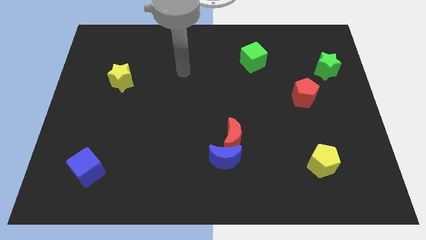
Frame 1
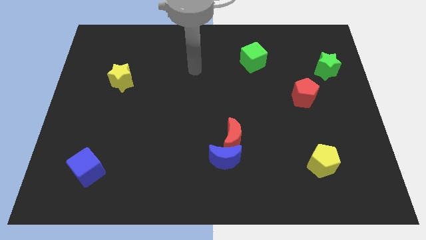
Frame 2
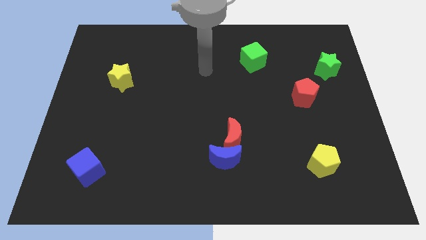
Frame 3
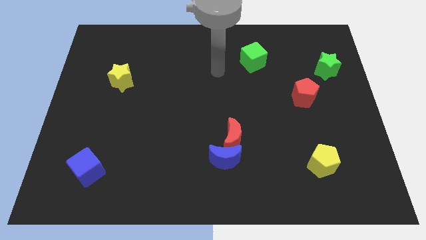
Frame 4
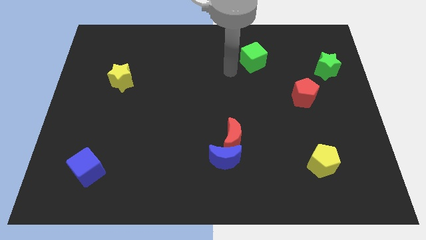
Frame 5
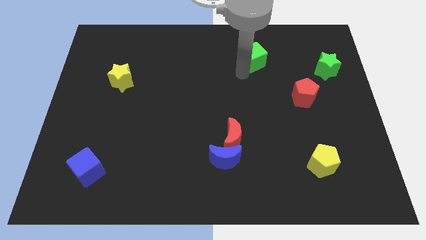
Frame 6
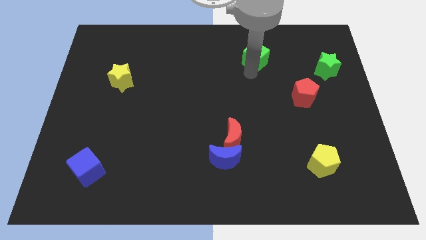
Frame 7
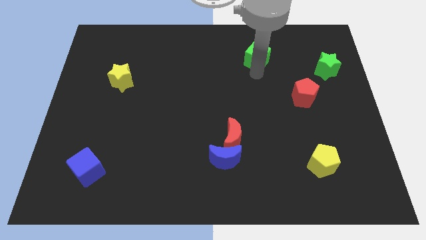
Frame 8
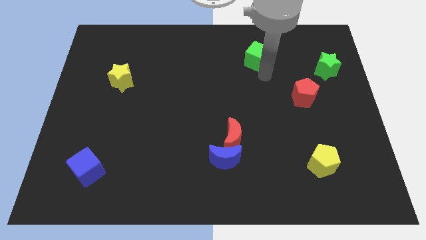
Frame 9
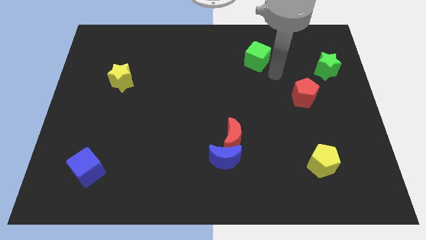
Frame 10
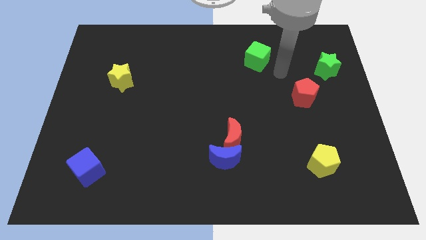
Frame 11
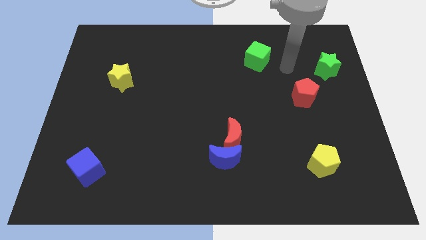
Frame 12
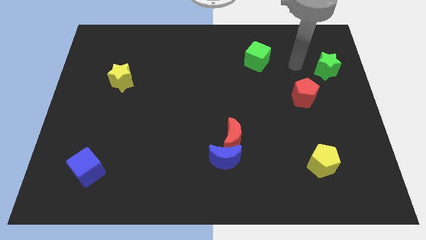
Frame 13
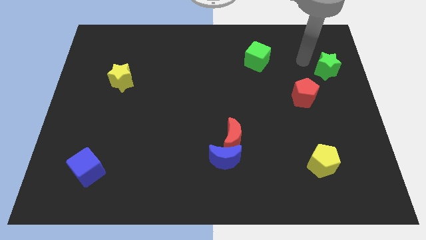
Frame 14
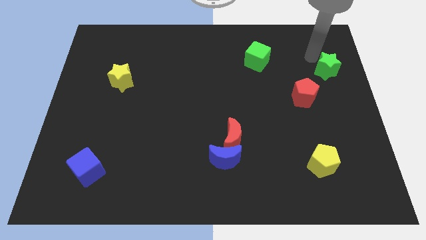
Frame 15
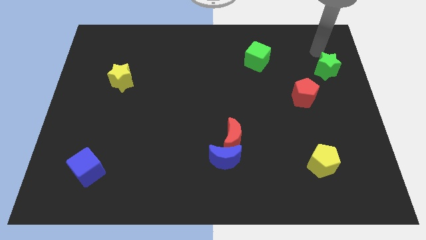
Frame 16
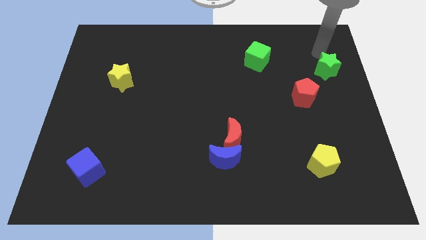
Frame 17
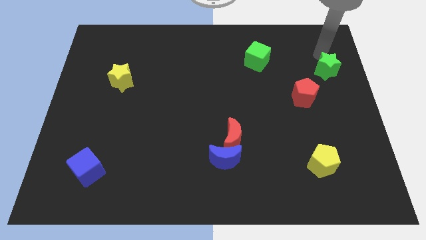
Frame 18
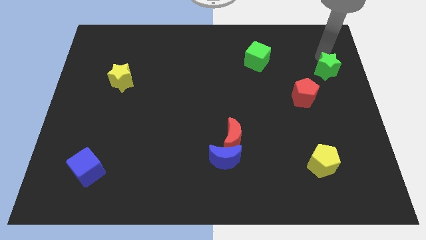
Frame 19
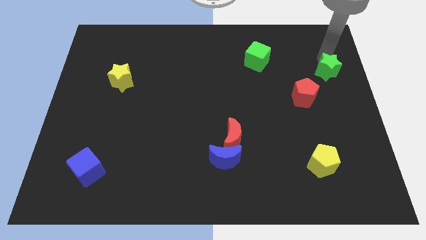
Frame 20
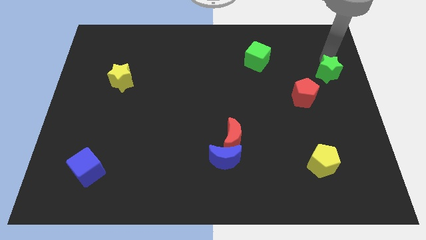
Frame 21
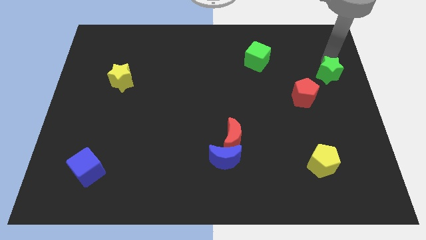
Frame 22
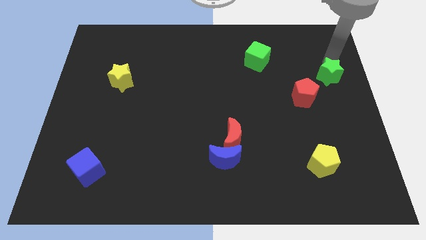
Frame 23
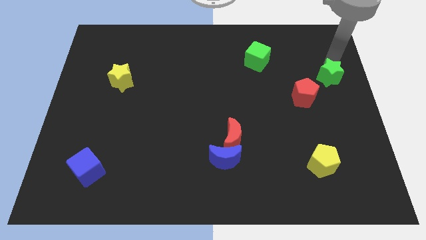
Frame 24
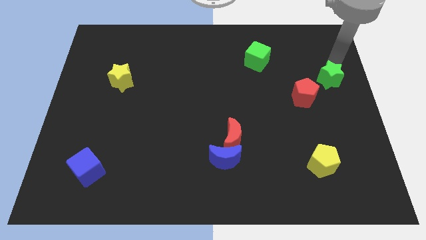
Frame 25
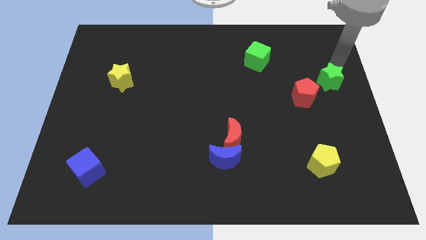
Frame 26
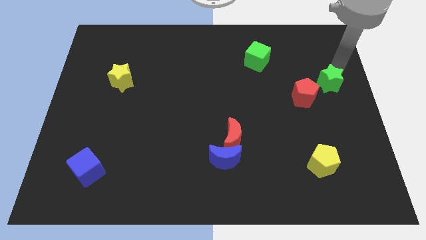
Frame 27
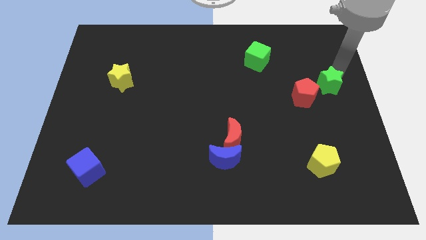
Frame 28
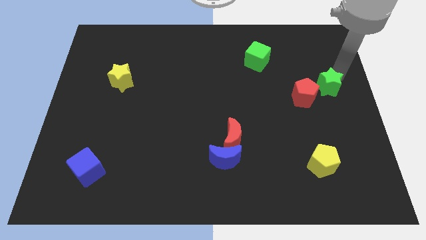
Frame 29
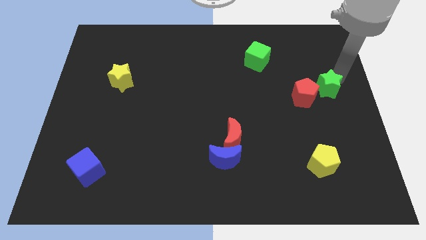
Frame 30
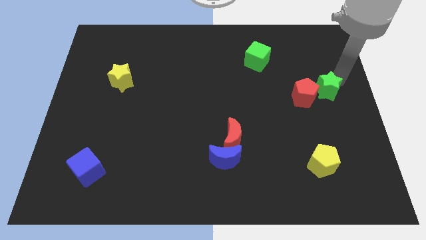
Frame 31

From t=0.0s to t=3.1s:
move the green star a little bit downwards

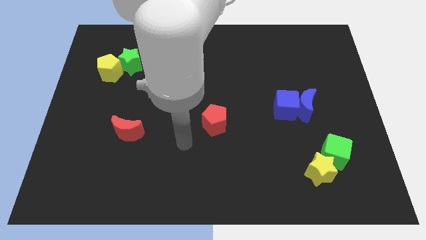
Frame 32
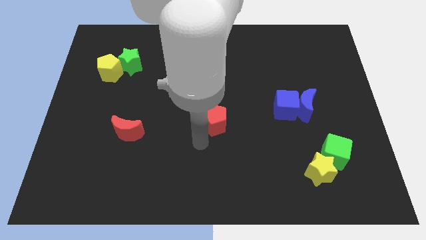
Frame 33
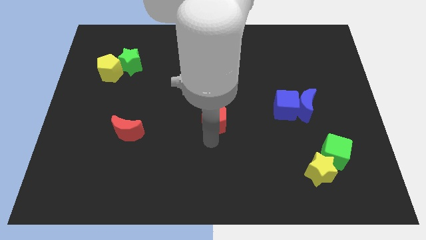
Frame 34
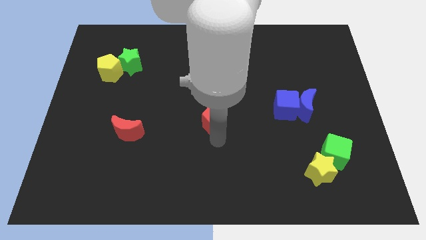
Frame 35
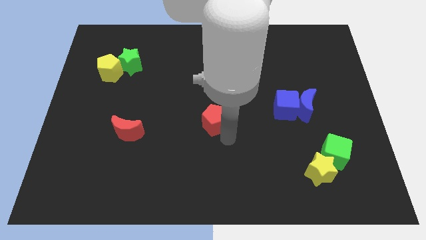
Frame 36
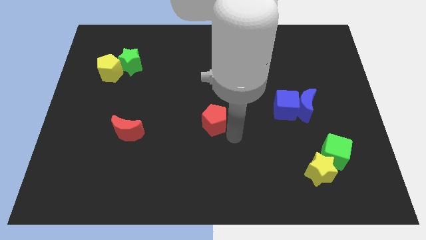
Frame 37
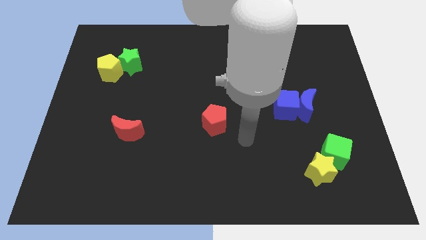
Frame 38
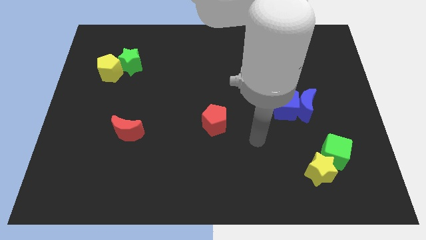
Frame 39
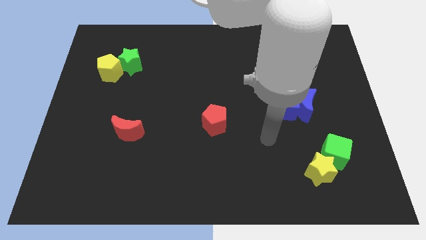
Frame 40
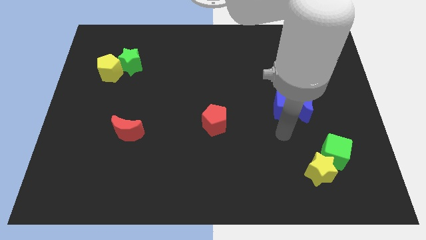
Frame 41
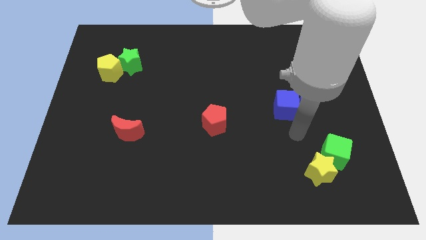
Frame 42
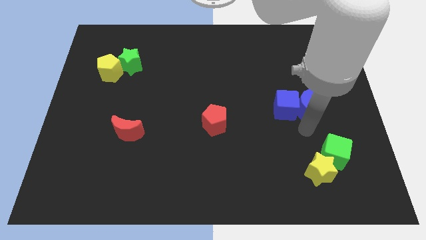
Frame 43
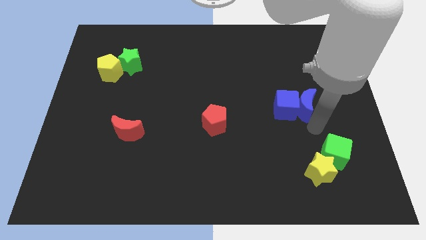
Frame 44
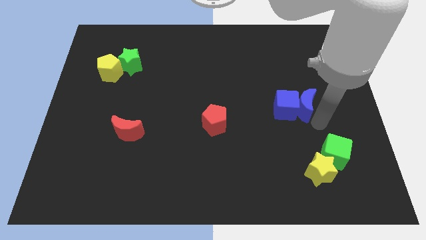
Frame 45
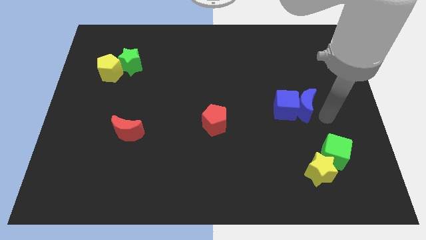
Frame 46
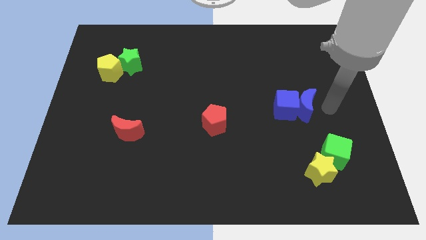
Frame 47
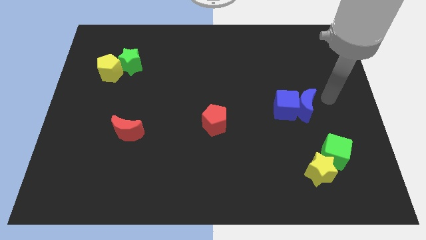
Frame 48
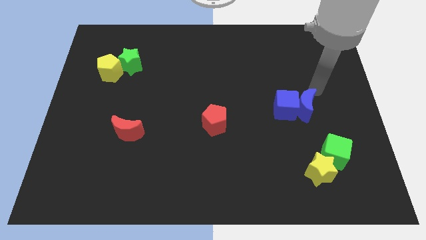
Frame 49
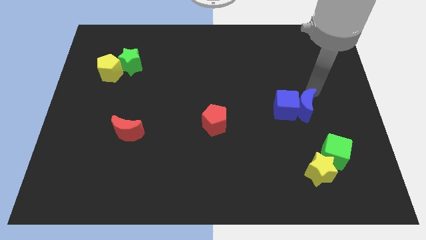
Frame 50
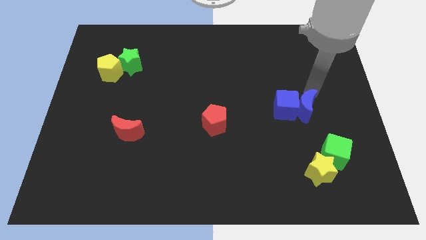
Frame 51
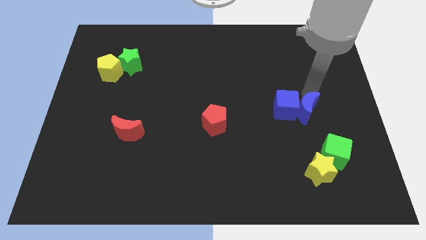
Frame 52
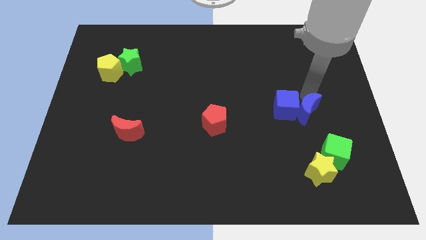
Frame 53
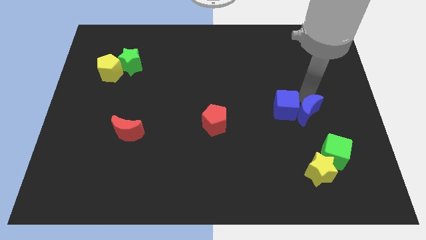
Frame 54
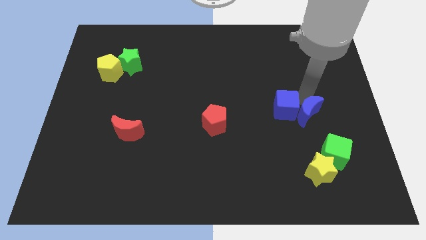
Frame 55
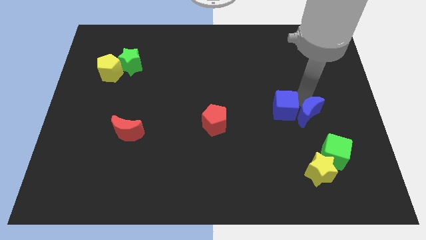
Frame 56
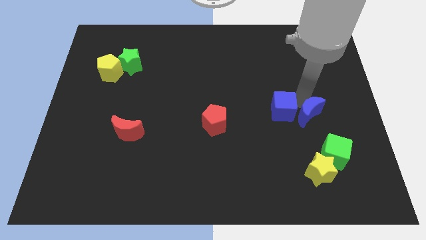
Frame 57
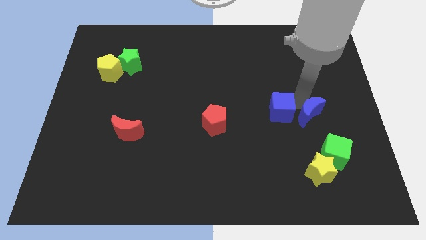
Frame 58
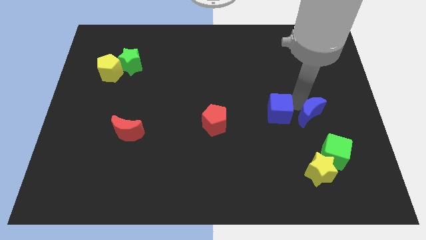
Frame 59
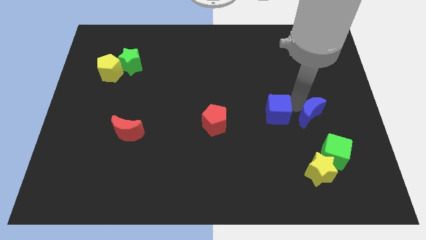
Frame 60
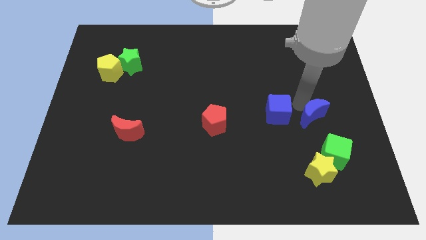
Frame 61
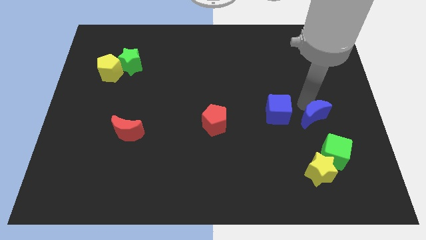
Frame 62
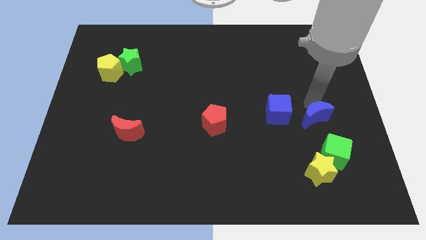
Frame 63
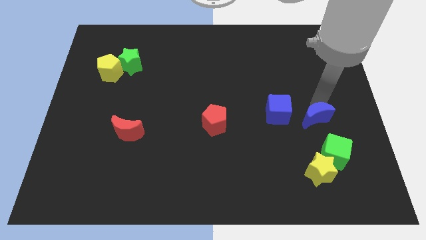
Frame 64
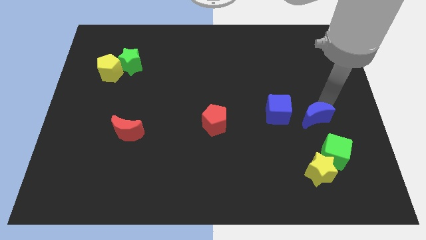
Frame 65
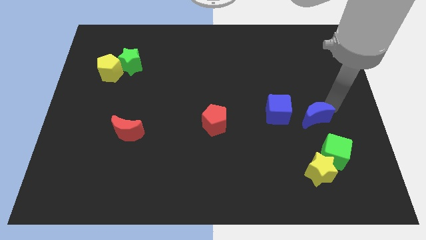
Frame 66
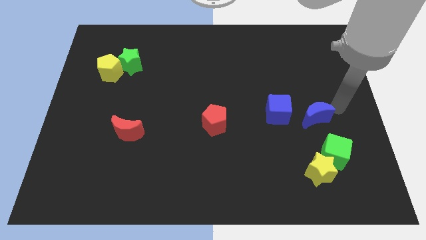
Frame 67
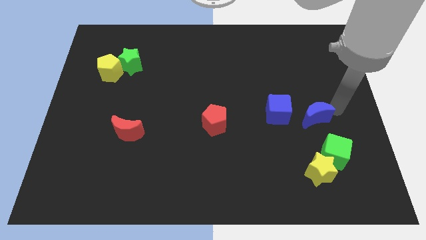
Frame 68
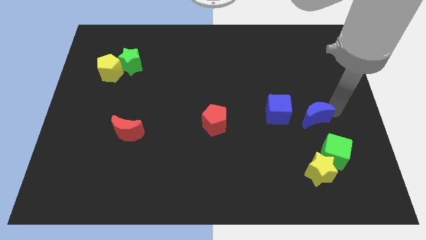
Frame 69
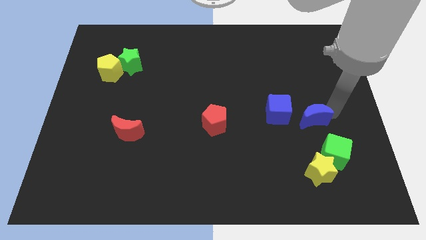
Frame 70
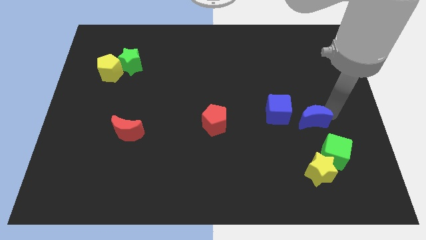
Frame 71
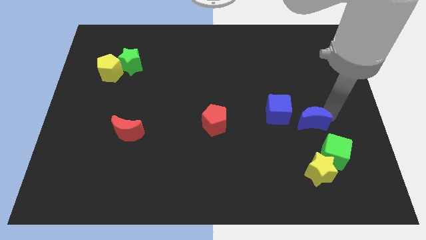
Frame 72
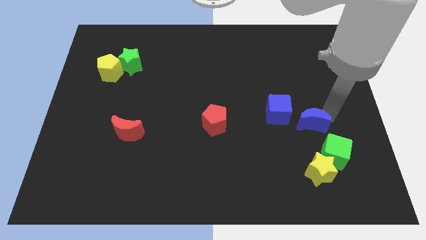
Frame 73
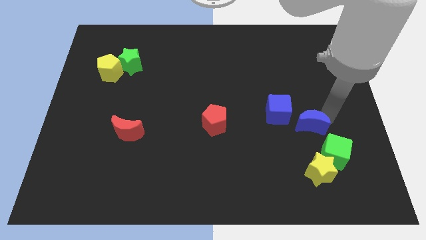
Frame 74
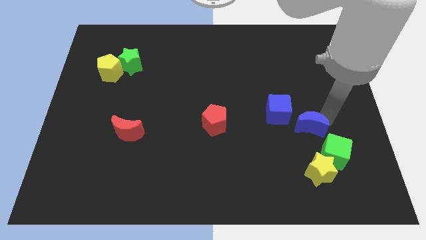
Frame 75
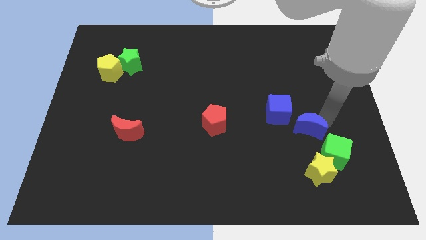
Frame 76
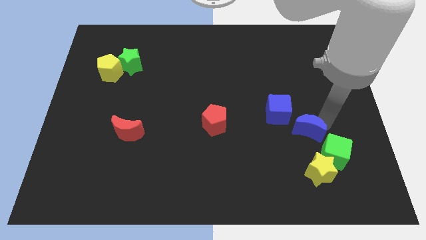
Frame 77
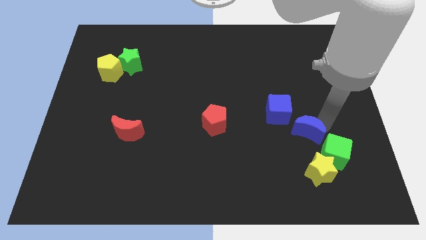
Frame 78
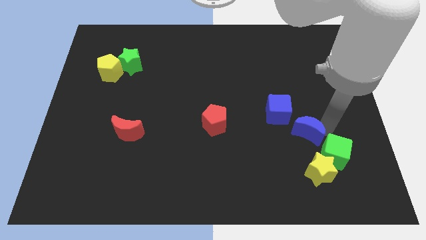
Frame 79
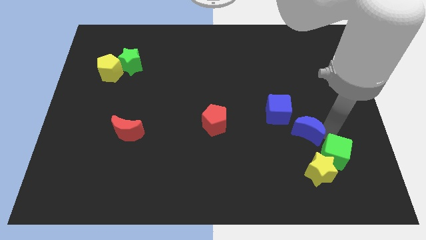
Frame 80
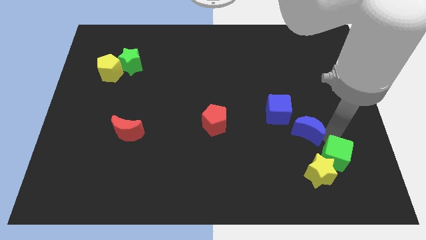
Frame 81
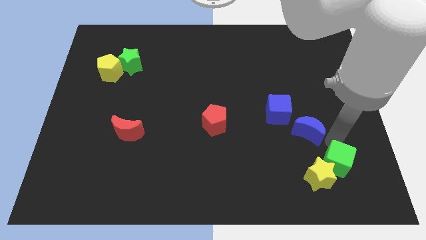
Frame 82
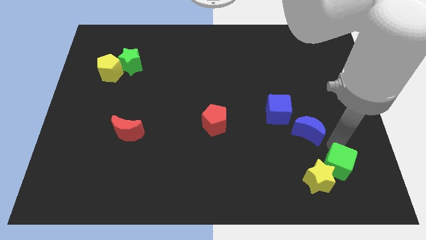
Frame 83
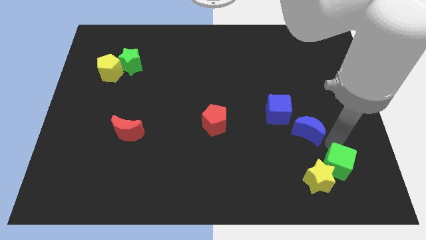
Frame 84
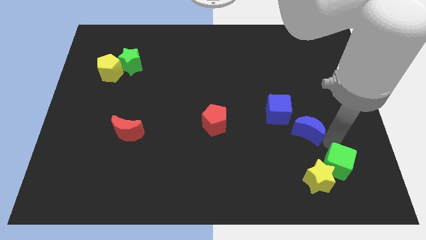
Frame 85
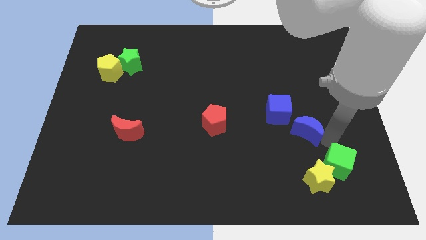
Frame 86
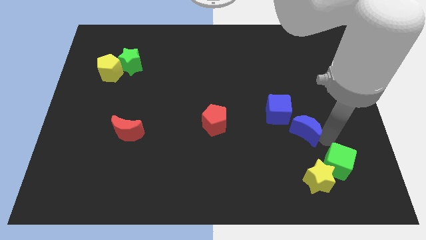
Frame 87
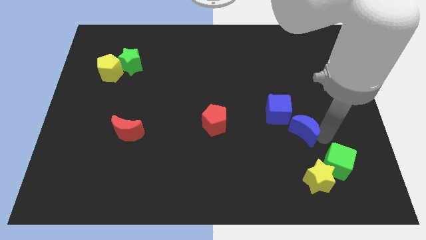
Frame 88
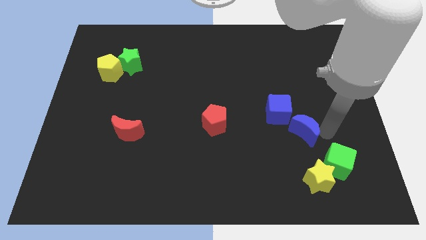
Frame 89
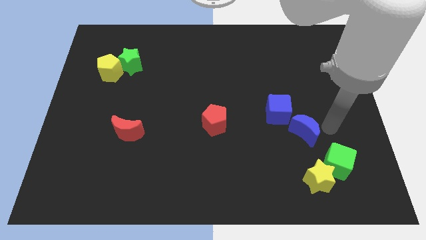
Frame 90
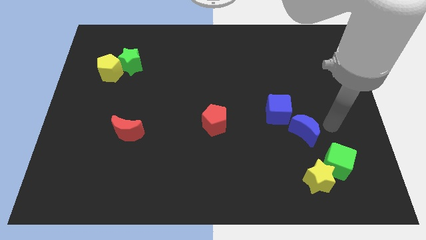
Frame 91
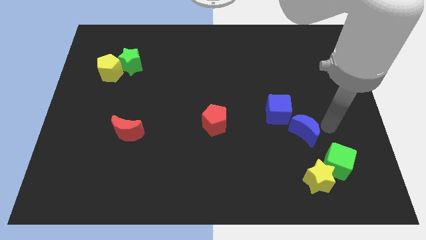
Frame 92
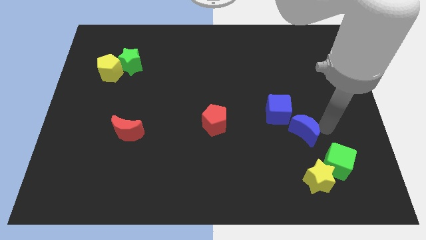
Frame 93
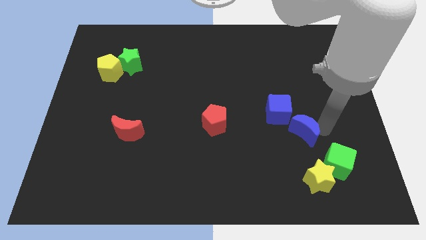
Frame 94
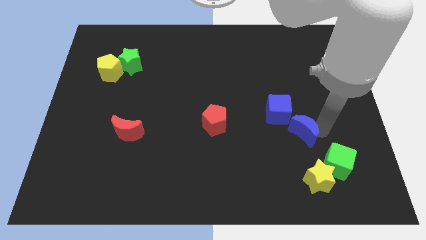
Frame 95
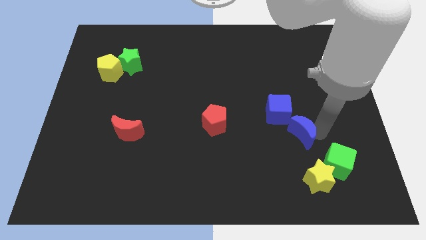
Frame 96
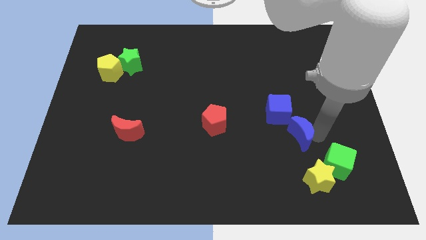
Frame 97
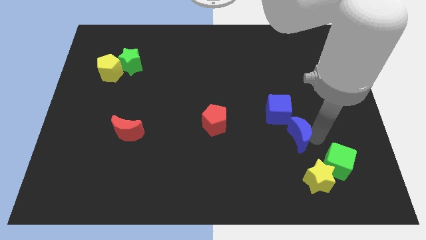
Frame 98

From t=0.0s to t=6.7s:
slide the blue moon diagonally down and left a little bit
